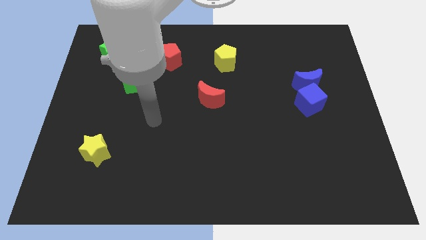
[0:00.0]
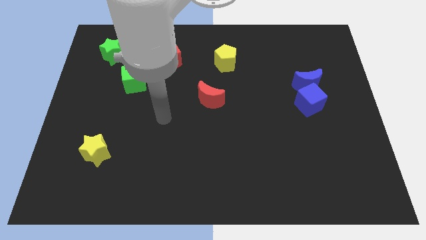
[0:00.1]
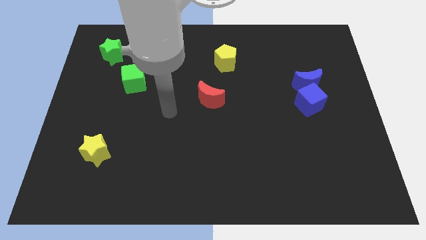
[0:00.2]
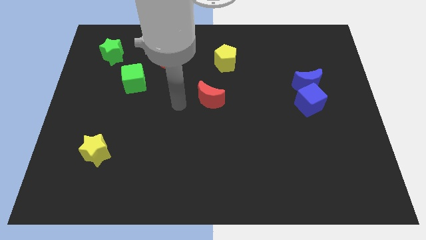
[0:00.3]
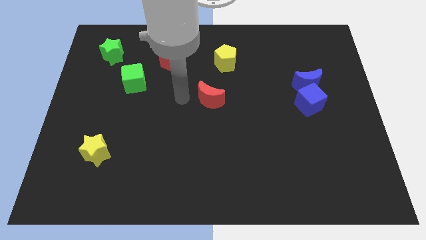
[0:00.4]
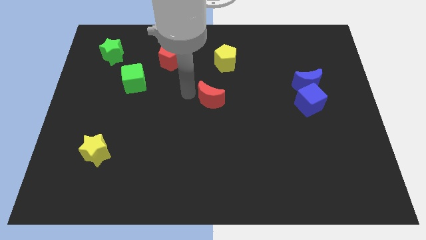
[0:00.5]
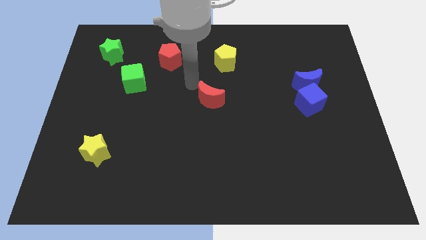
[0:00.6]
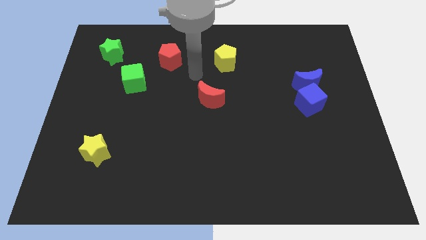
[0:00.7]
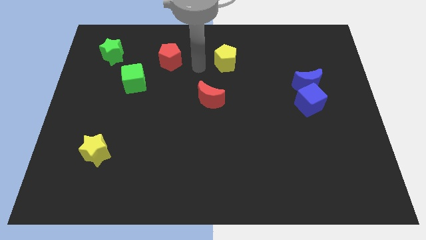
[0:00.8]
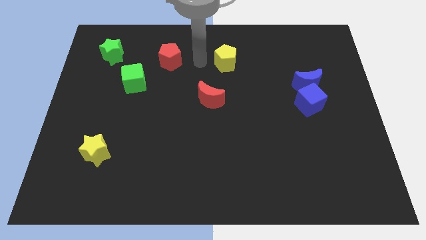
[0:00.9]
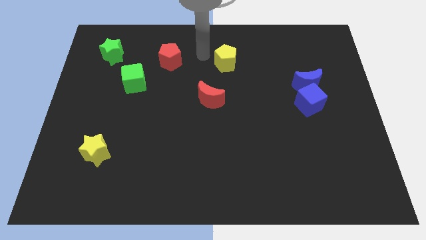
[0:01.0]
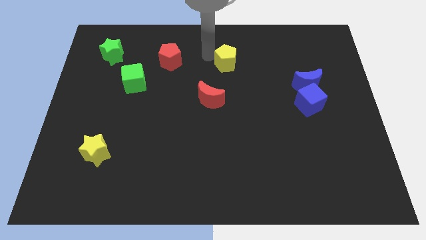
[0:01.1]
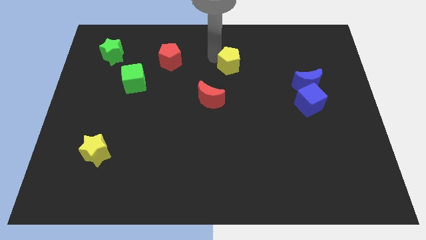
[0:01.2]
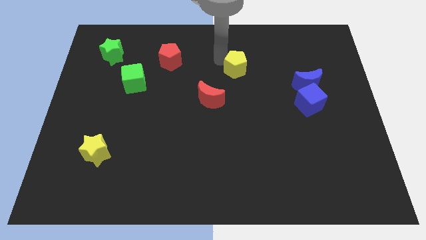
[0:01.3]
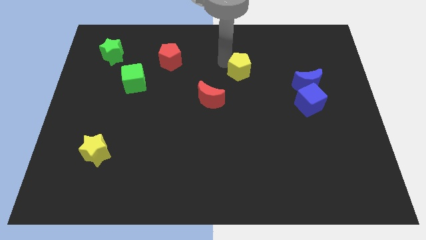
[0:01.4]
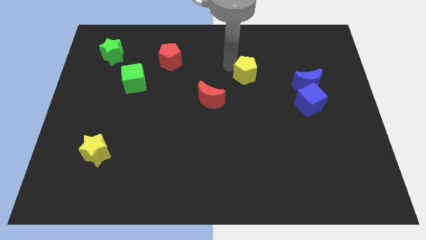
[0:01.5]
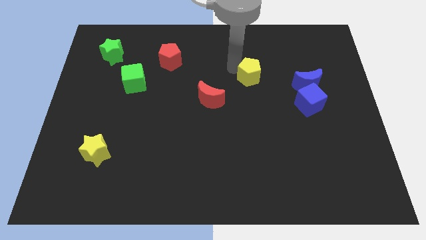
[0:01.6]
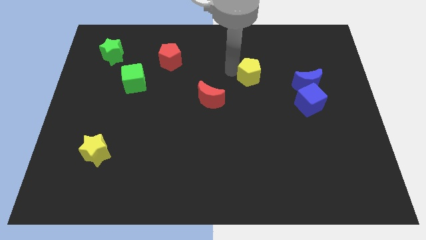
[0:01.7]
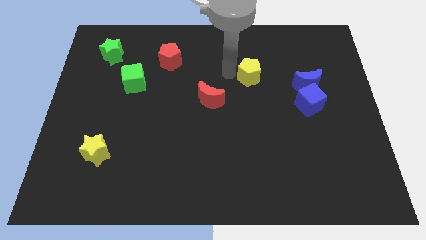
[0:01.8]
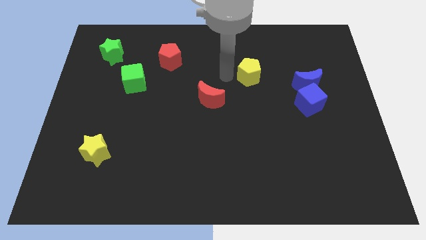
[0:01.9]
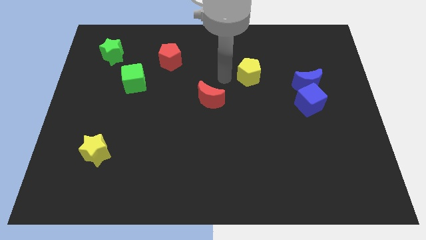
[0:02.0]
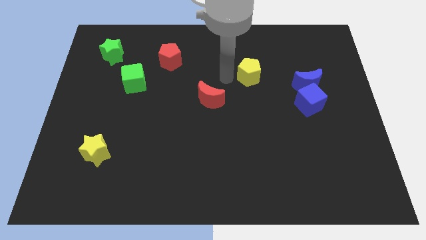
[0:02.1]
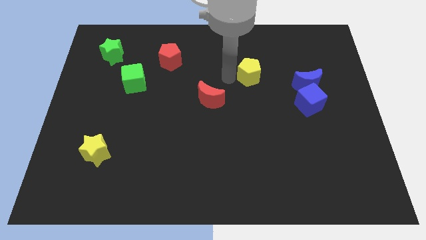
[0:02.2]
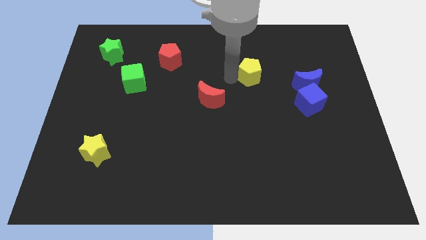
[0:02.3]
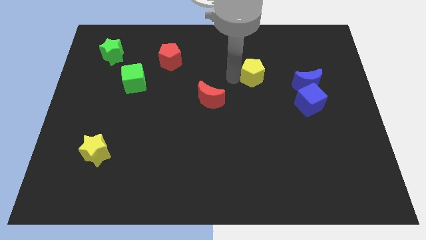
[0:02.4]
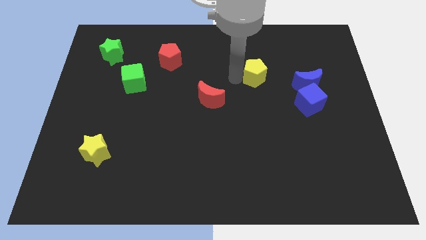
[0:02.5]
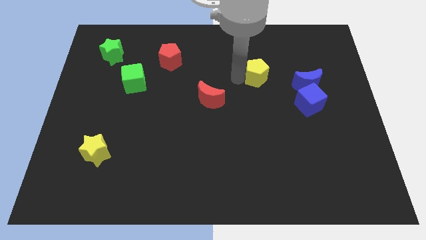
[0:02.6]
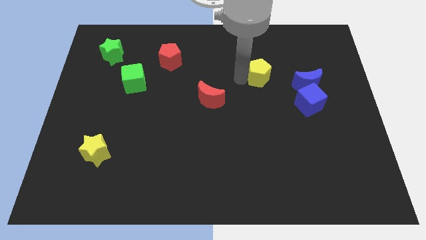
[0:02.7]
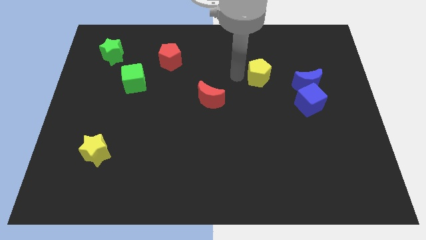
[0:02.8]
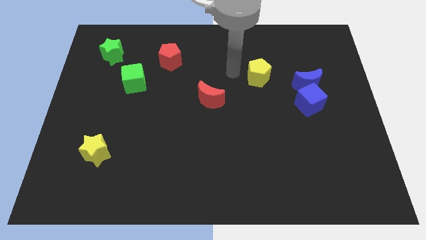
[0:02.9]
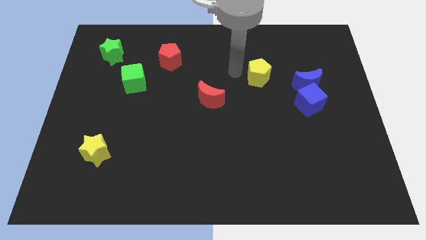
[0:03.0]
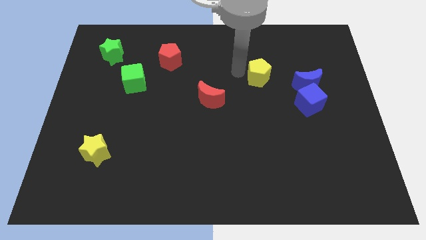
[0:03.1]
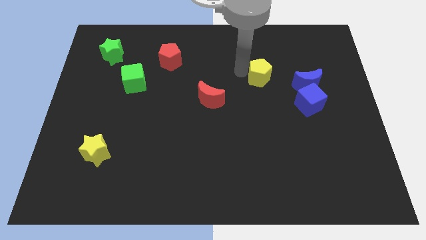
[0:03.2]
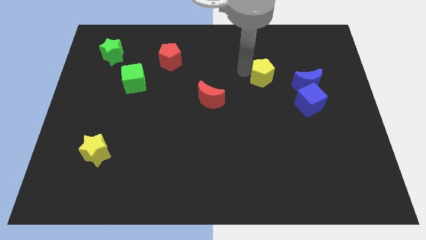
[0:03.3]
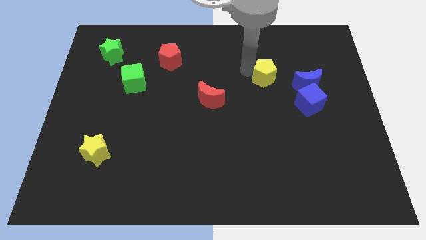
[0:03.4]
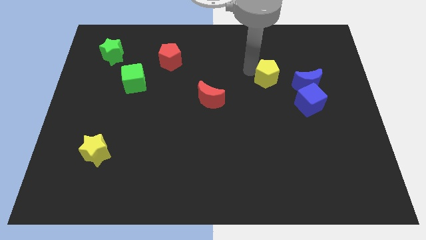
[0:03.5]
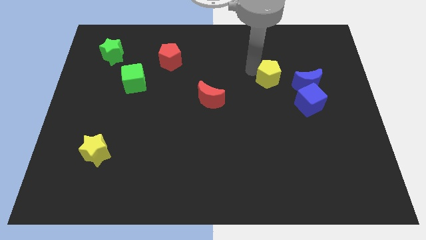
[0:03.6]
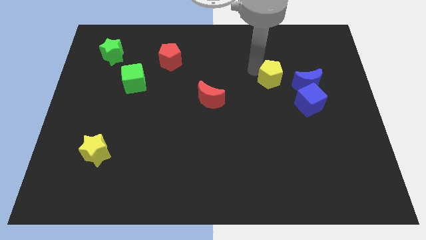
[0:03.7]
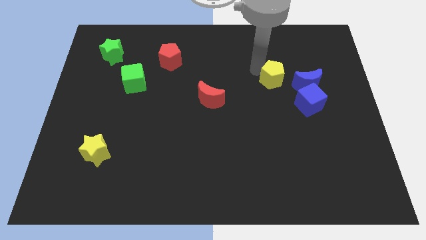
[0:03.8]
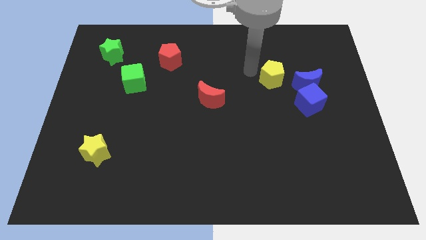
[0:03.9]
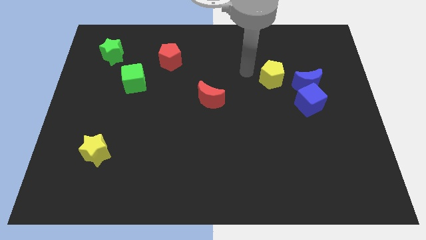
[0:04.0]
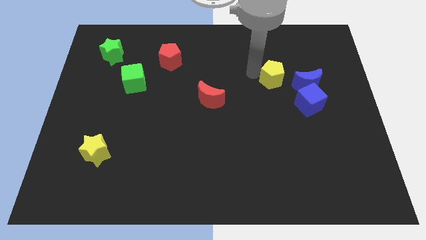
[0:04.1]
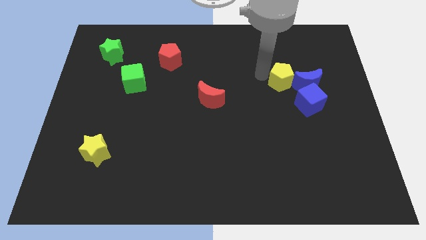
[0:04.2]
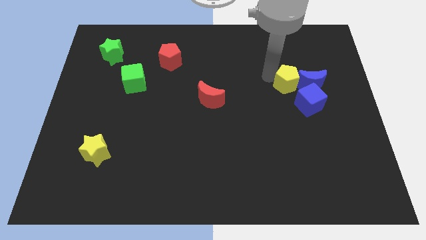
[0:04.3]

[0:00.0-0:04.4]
slide the yellow pentagon close to the blue moon

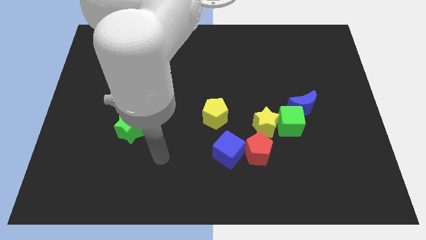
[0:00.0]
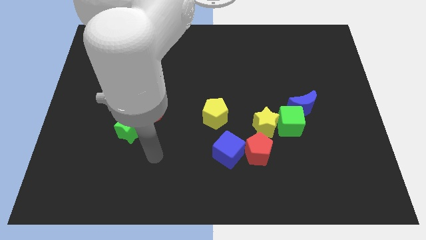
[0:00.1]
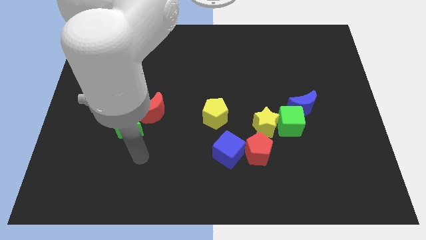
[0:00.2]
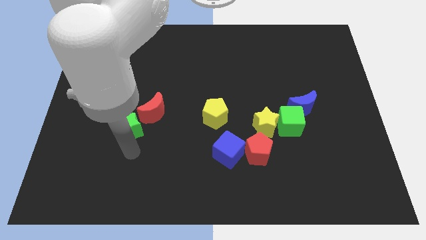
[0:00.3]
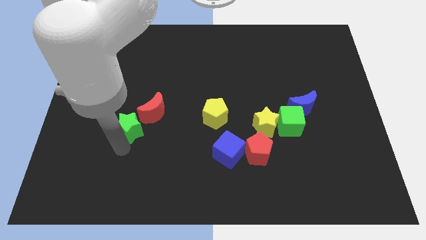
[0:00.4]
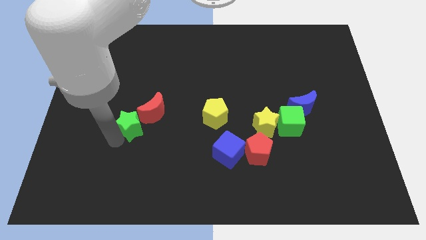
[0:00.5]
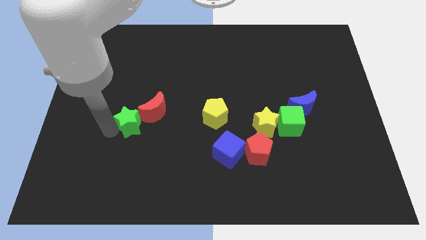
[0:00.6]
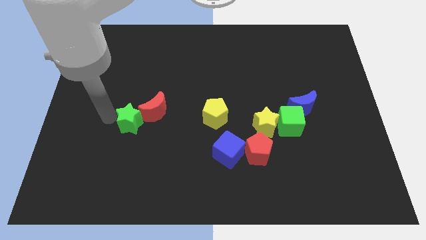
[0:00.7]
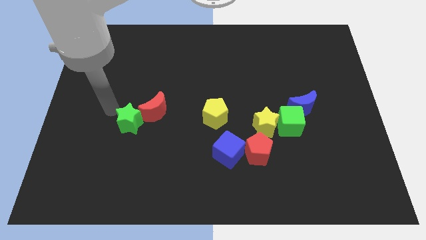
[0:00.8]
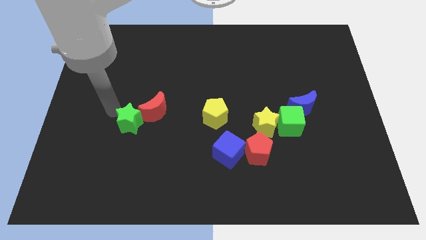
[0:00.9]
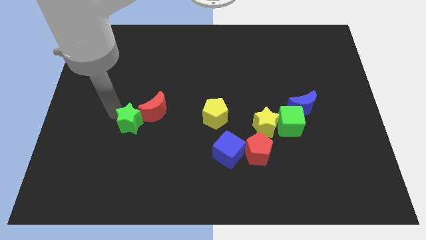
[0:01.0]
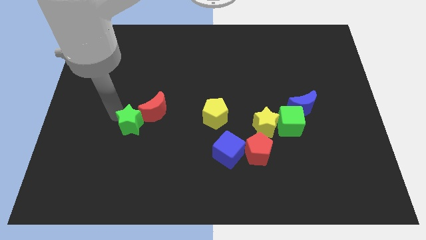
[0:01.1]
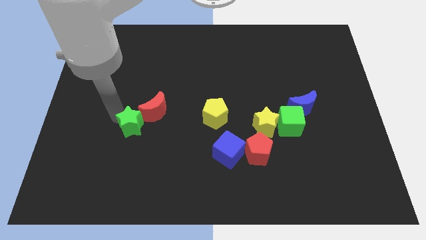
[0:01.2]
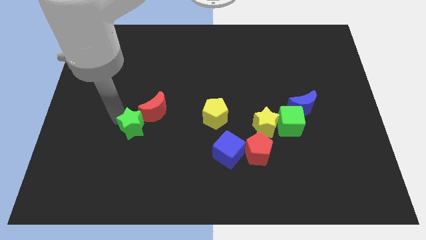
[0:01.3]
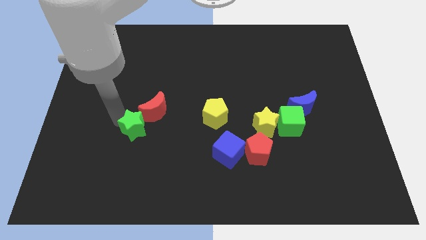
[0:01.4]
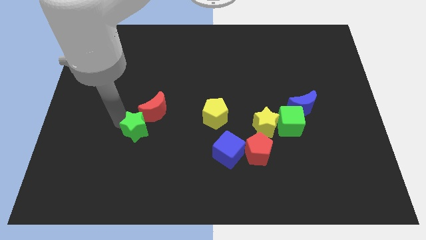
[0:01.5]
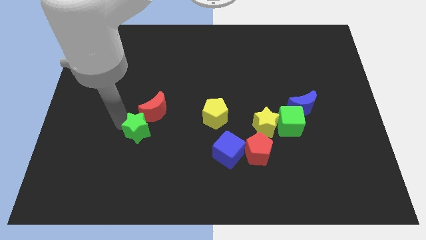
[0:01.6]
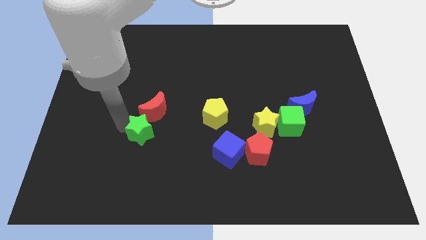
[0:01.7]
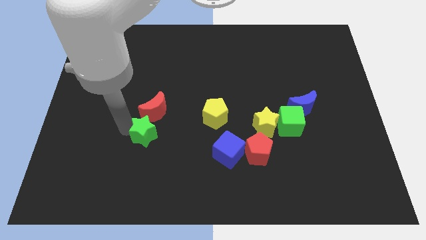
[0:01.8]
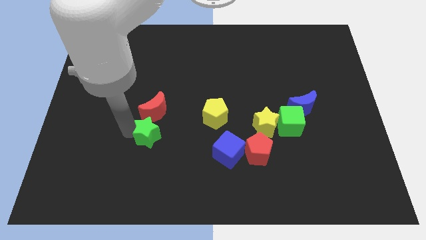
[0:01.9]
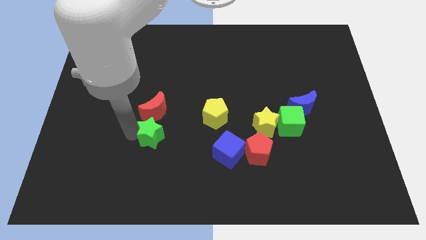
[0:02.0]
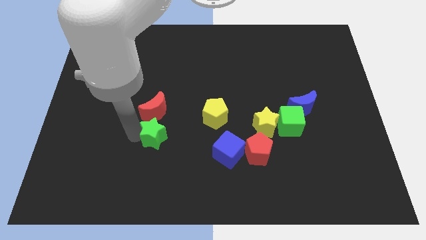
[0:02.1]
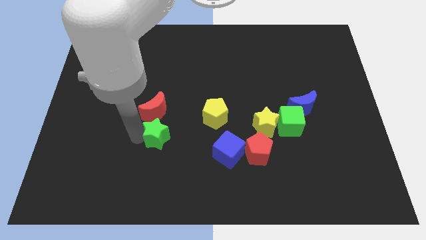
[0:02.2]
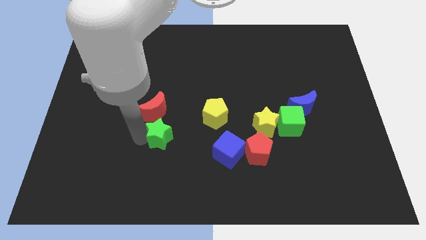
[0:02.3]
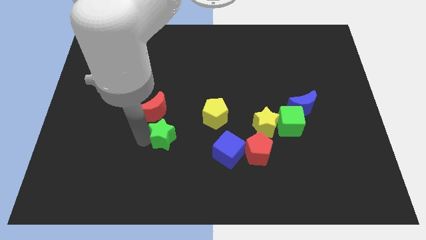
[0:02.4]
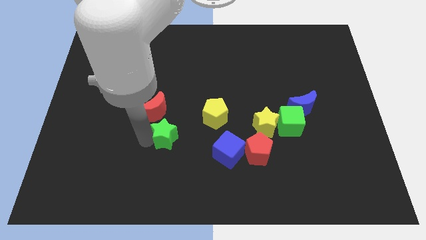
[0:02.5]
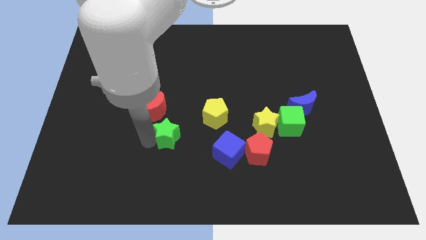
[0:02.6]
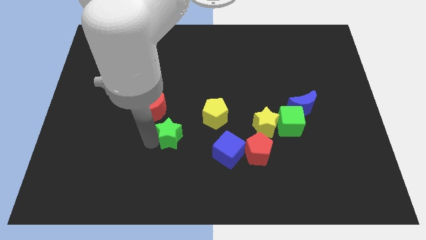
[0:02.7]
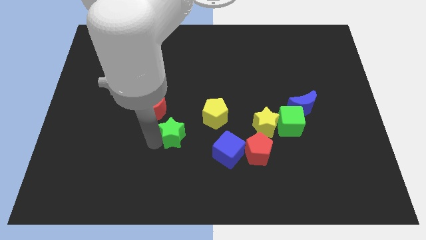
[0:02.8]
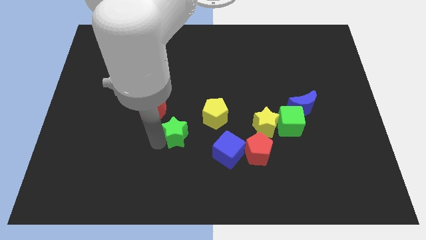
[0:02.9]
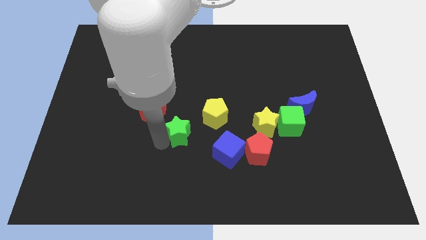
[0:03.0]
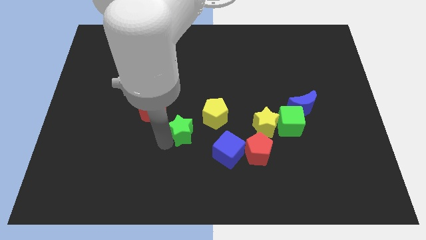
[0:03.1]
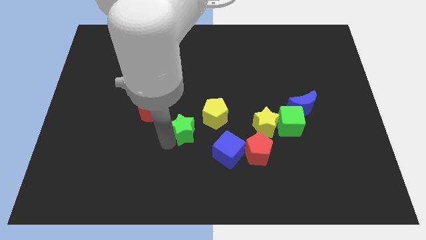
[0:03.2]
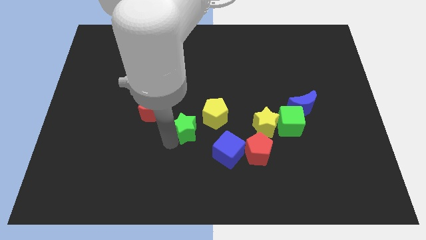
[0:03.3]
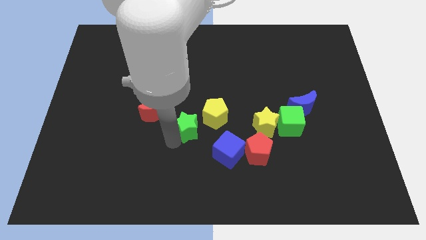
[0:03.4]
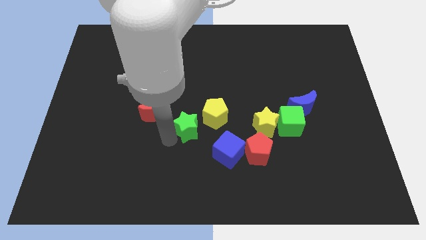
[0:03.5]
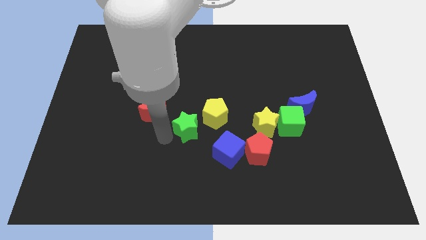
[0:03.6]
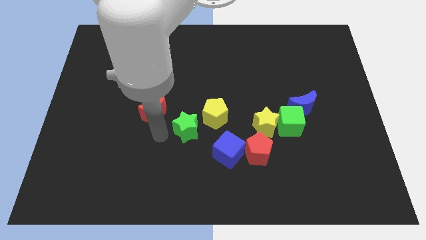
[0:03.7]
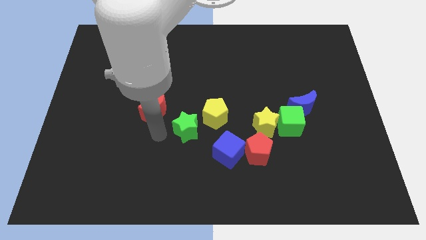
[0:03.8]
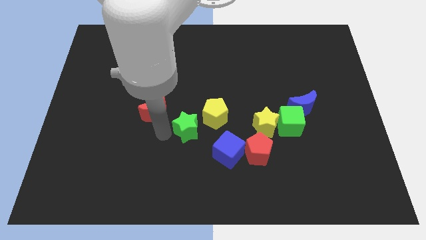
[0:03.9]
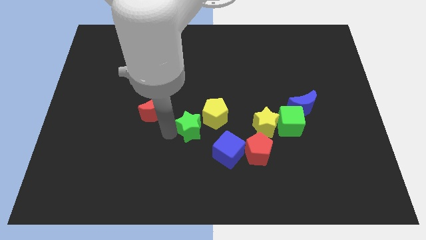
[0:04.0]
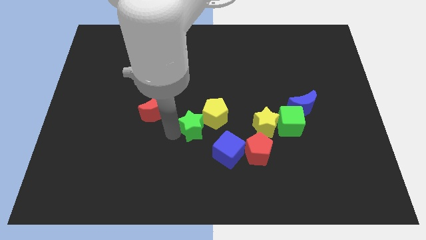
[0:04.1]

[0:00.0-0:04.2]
put the green star towards the yellow pentagon
